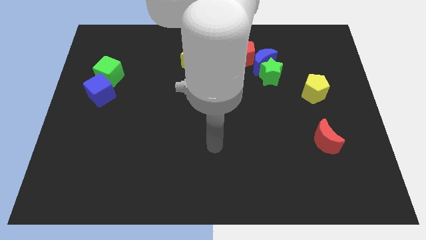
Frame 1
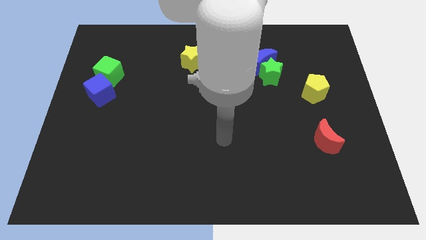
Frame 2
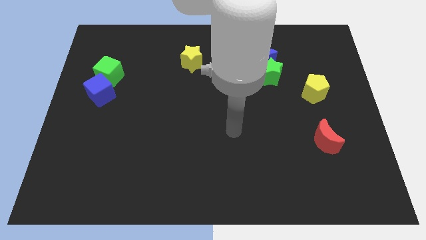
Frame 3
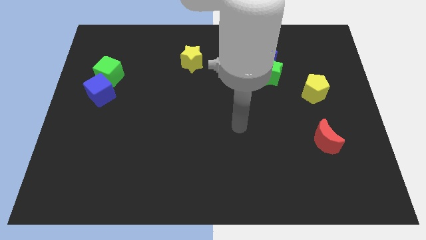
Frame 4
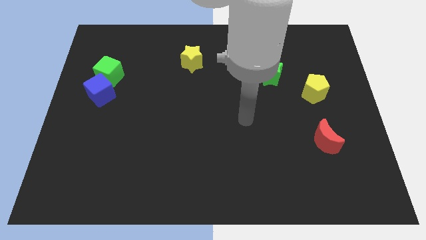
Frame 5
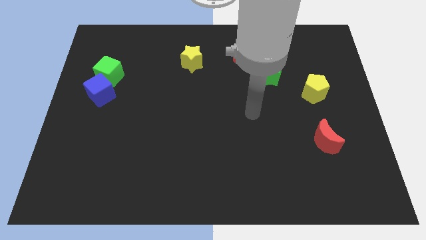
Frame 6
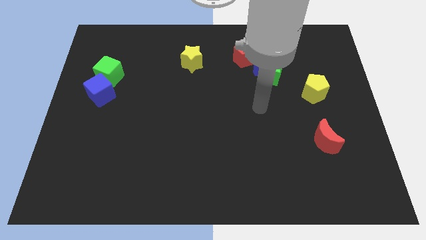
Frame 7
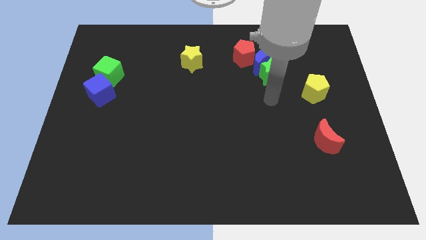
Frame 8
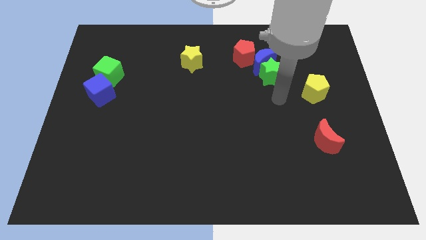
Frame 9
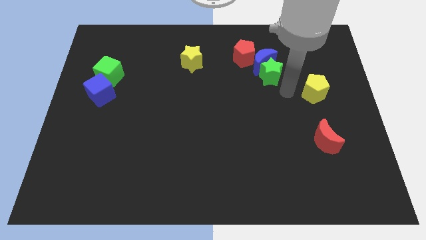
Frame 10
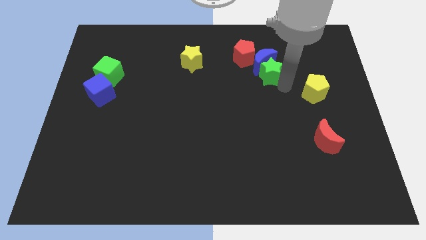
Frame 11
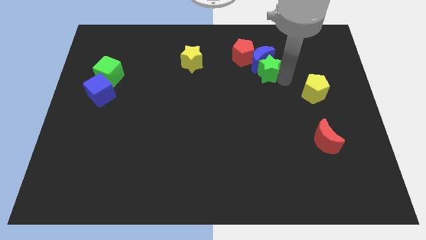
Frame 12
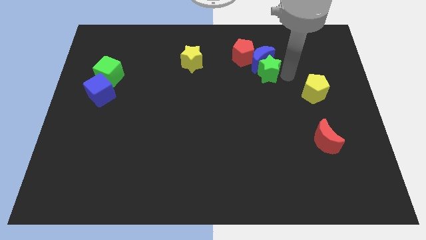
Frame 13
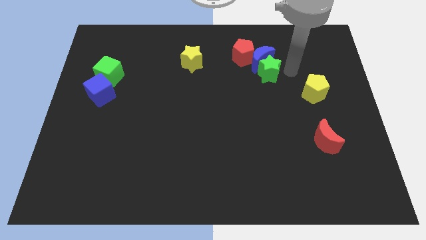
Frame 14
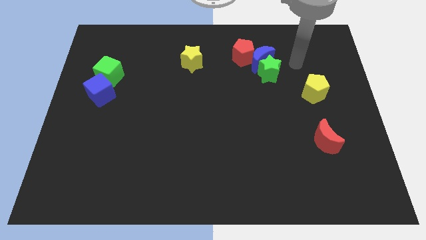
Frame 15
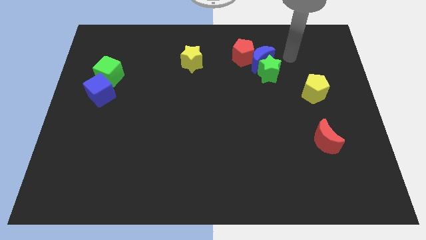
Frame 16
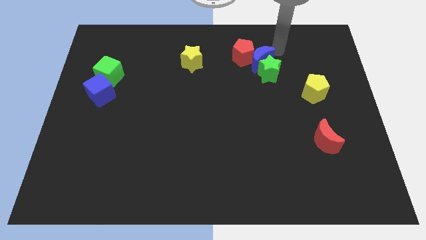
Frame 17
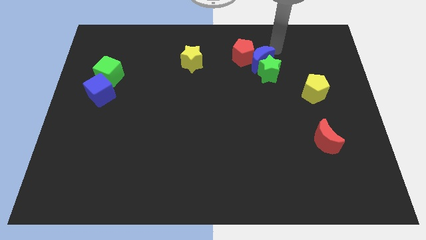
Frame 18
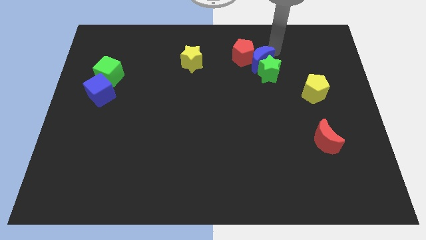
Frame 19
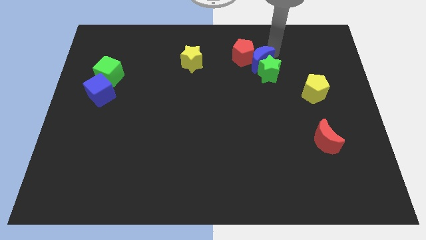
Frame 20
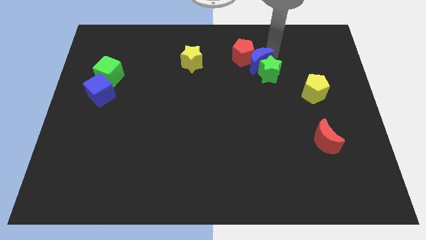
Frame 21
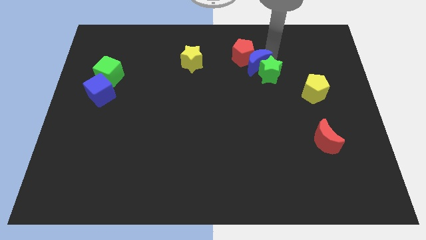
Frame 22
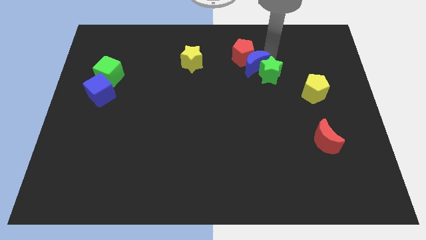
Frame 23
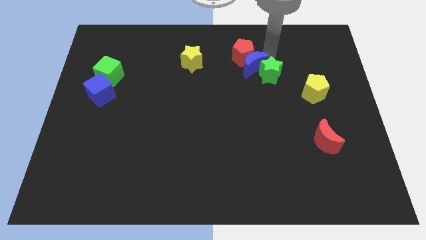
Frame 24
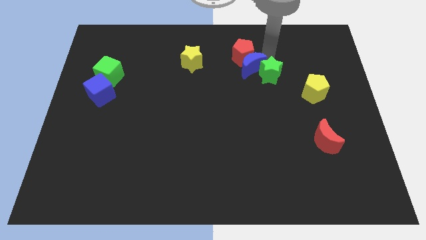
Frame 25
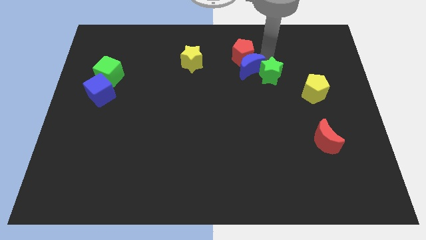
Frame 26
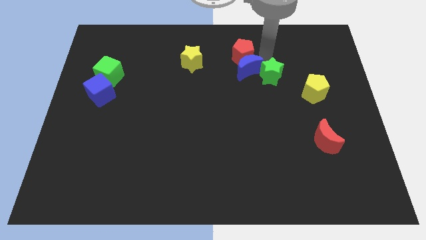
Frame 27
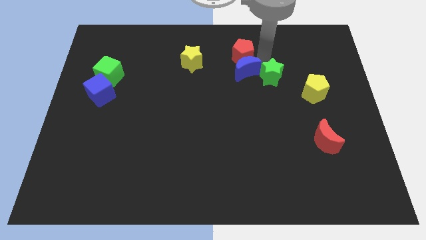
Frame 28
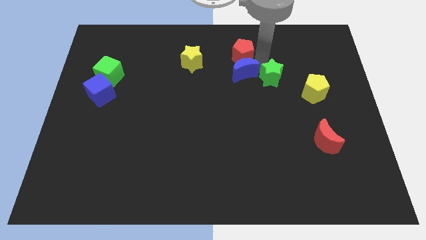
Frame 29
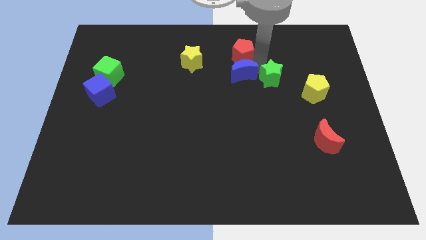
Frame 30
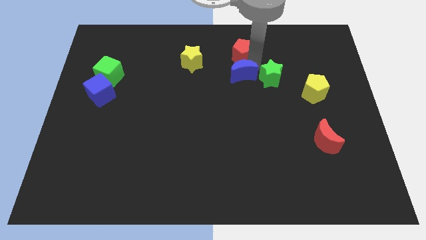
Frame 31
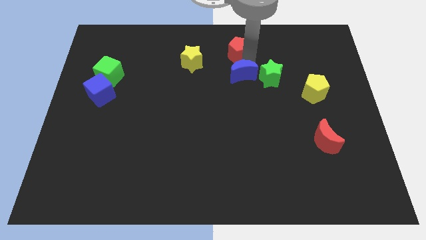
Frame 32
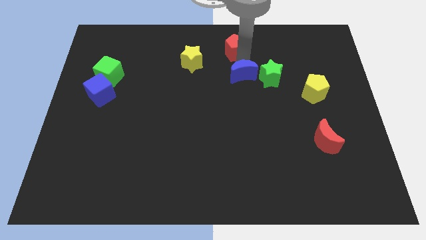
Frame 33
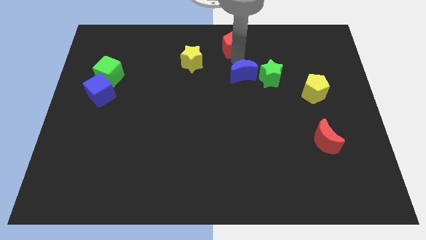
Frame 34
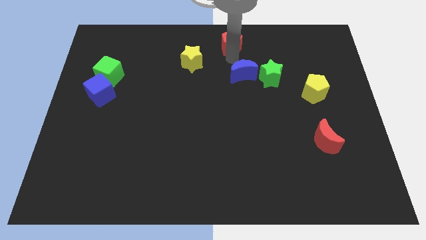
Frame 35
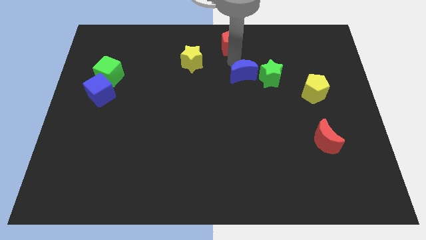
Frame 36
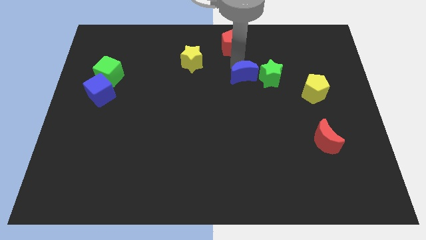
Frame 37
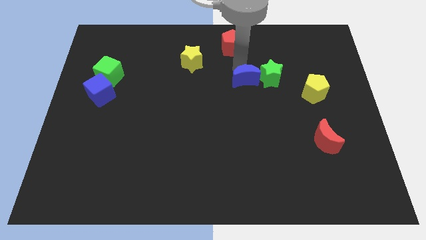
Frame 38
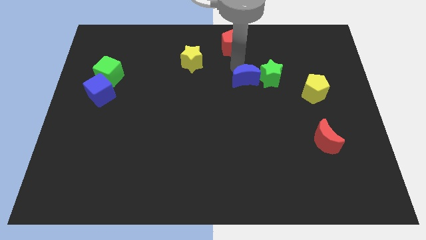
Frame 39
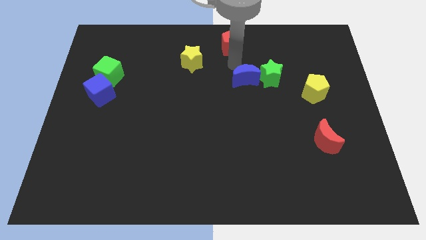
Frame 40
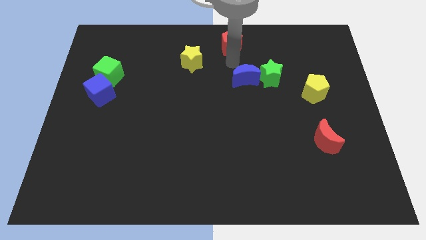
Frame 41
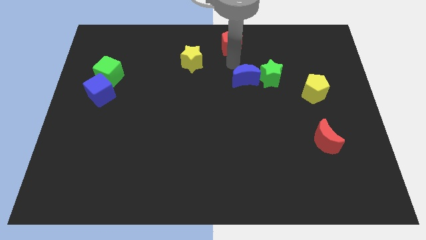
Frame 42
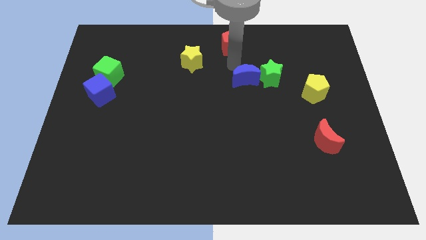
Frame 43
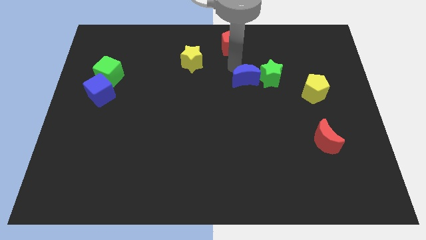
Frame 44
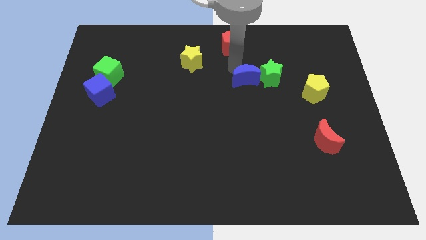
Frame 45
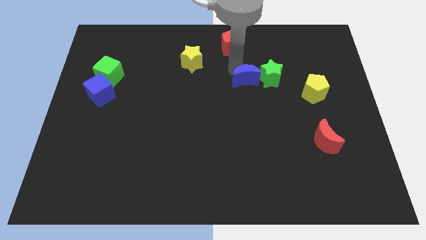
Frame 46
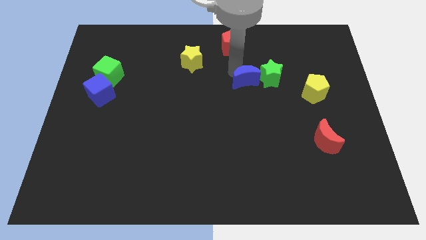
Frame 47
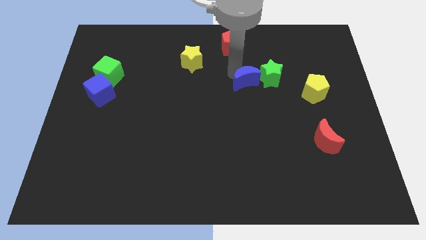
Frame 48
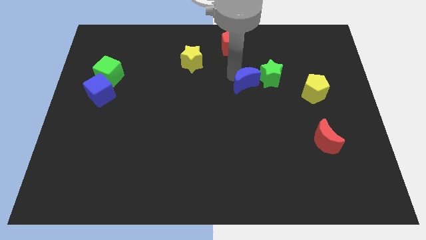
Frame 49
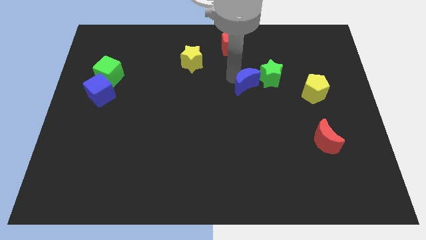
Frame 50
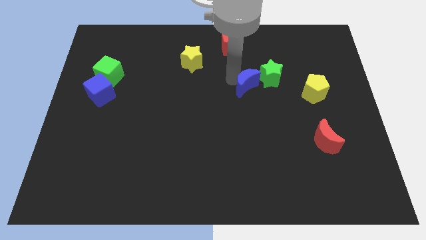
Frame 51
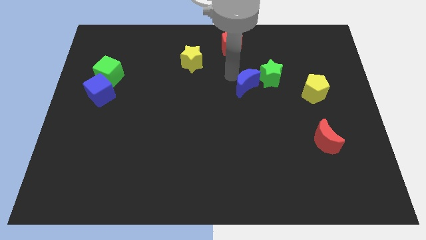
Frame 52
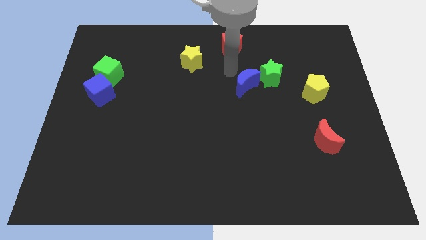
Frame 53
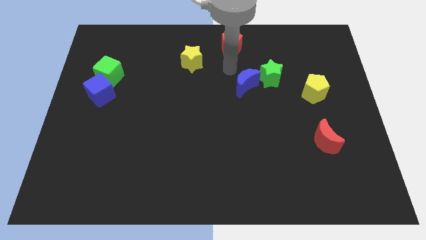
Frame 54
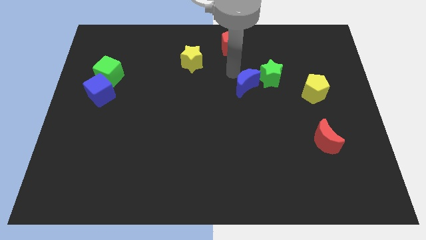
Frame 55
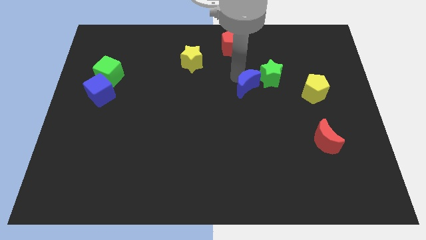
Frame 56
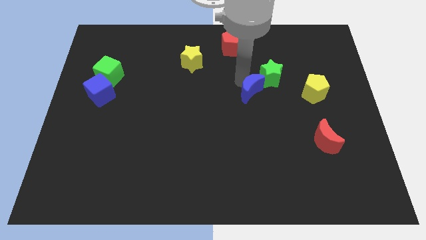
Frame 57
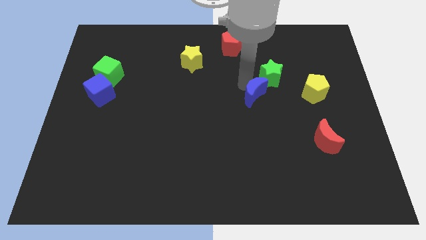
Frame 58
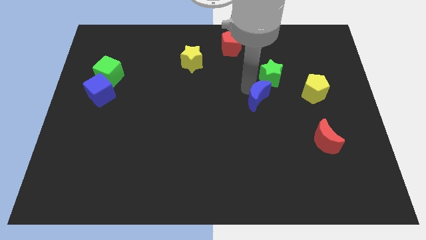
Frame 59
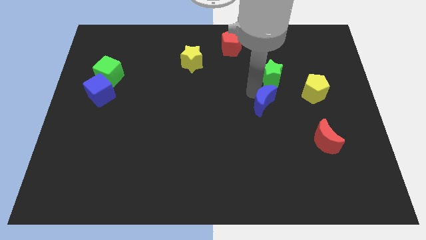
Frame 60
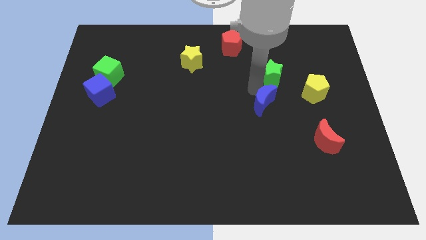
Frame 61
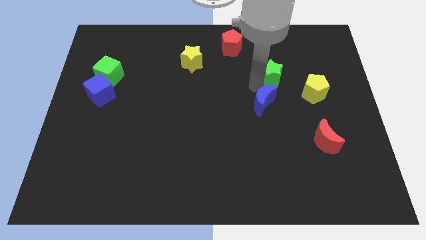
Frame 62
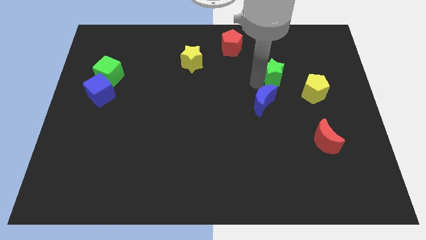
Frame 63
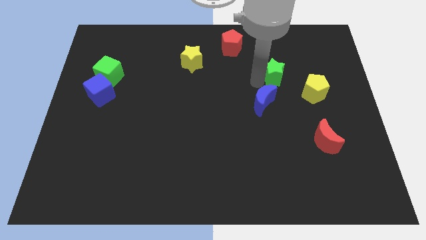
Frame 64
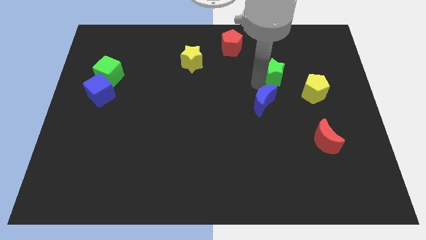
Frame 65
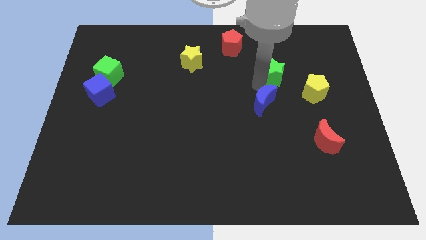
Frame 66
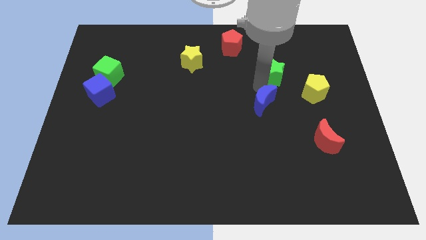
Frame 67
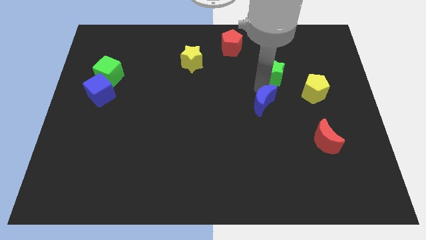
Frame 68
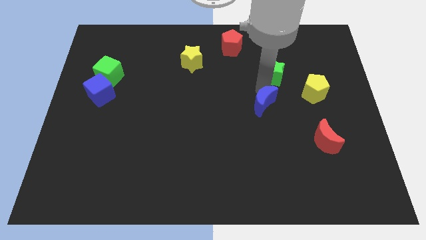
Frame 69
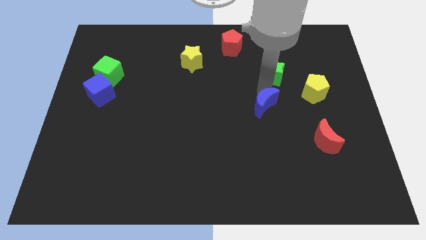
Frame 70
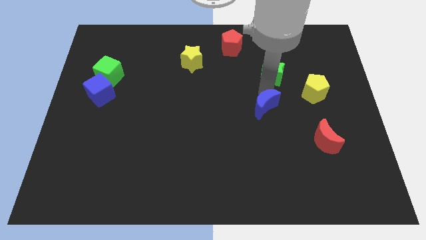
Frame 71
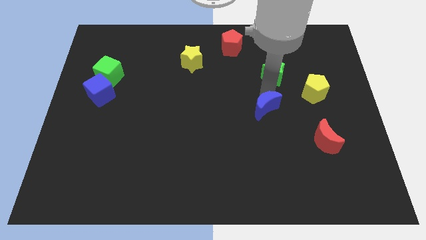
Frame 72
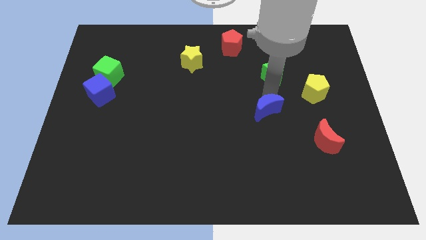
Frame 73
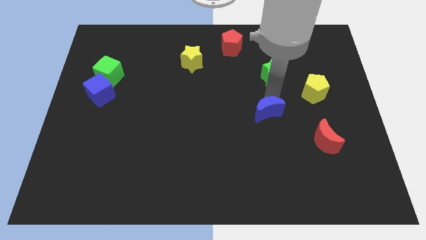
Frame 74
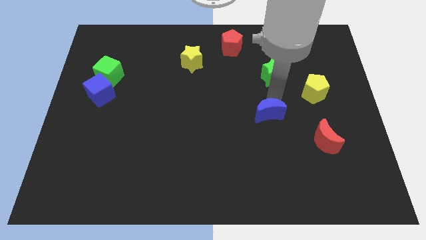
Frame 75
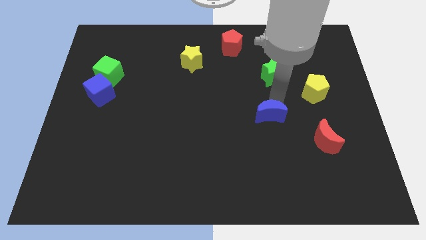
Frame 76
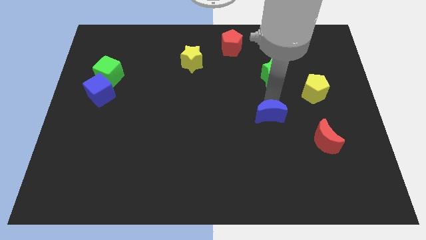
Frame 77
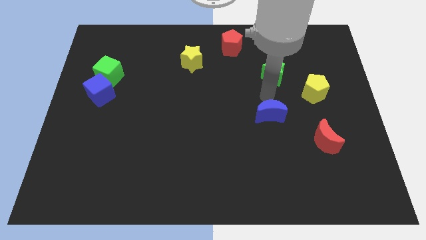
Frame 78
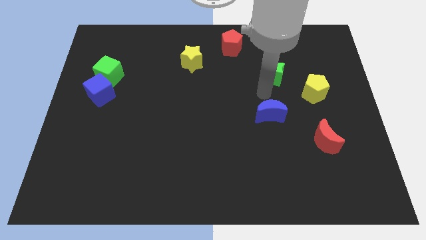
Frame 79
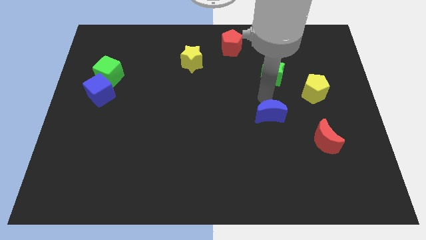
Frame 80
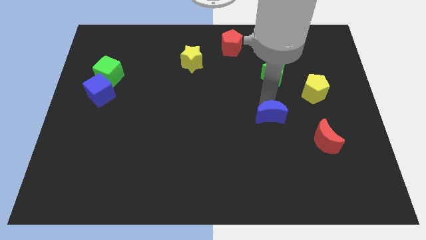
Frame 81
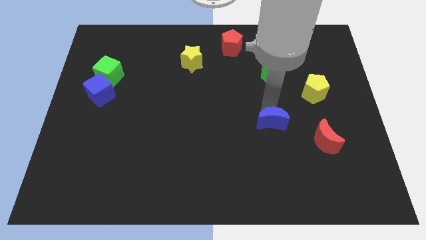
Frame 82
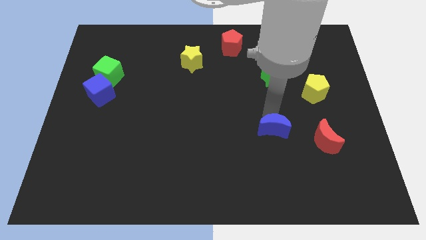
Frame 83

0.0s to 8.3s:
slide the blue moon to the left of the red moon
